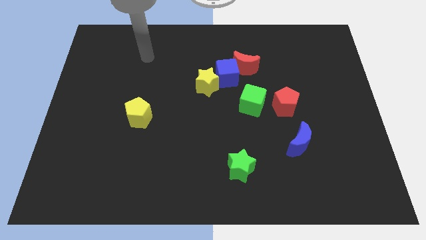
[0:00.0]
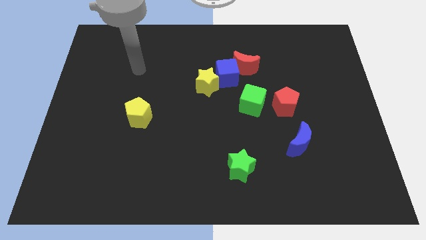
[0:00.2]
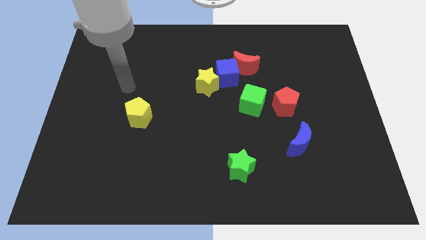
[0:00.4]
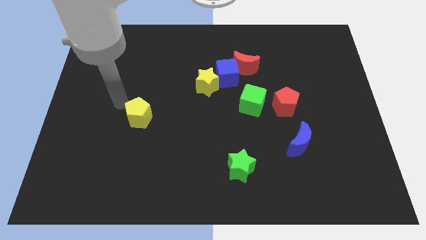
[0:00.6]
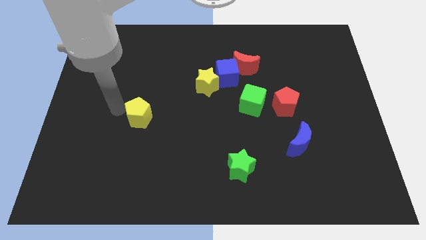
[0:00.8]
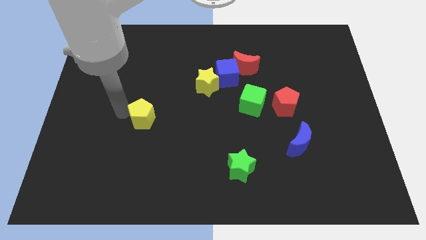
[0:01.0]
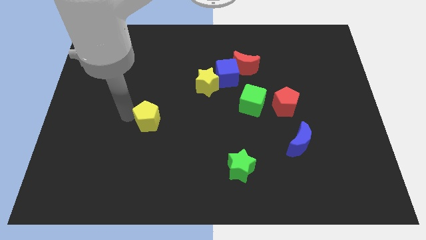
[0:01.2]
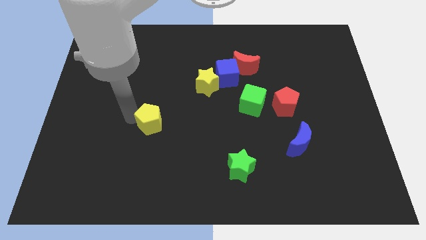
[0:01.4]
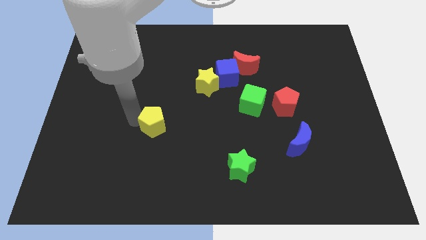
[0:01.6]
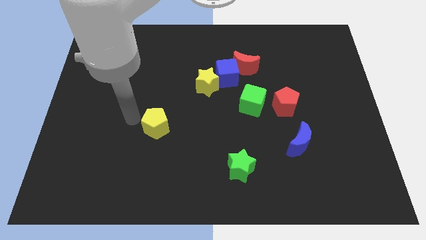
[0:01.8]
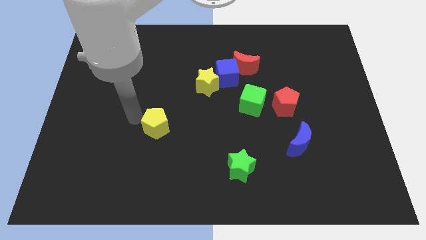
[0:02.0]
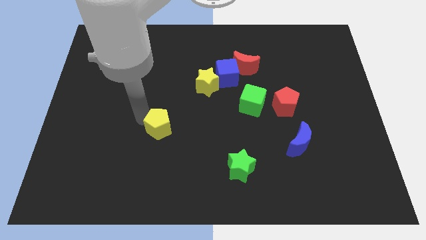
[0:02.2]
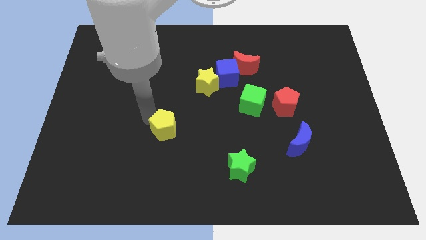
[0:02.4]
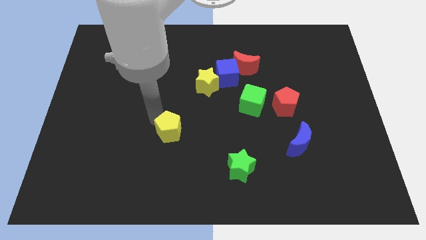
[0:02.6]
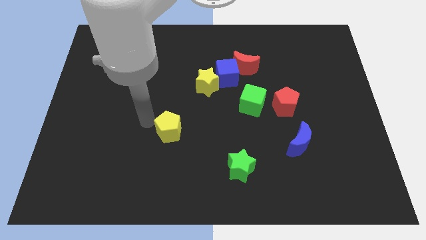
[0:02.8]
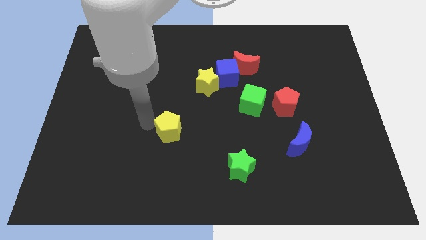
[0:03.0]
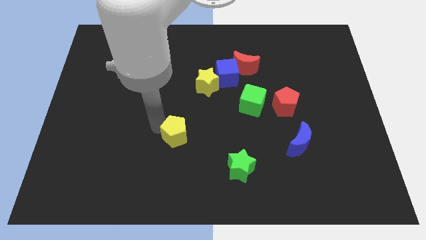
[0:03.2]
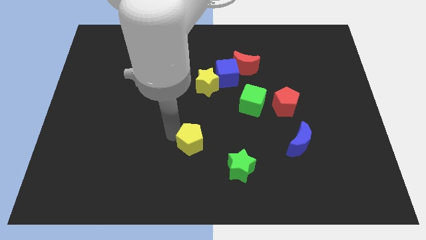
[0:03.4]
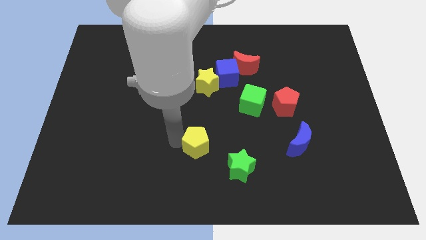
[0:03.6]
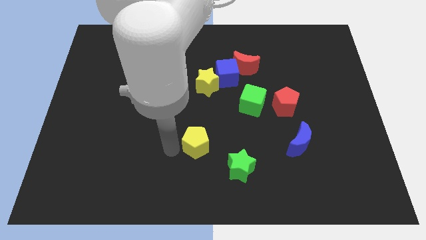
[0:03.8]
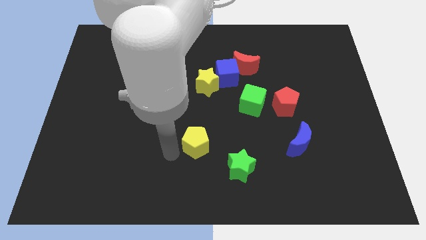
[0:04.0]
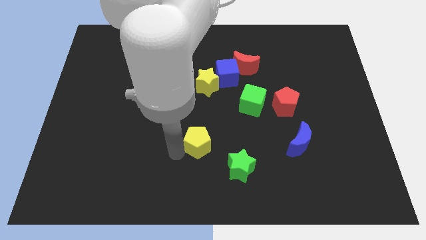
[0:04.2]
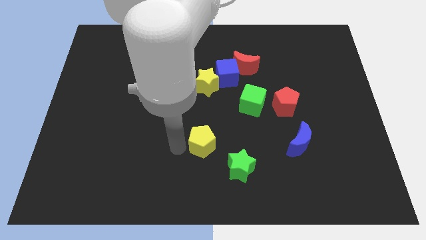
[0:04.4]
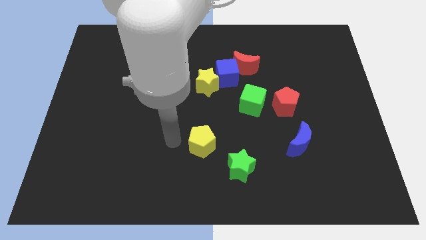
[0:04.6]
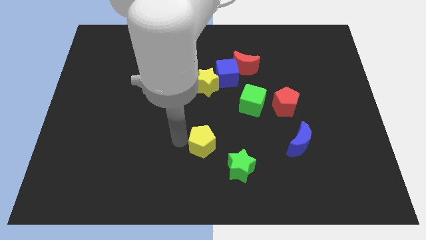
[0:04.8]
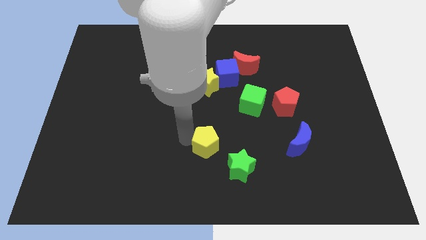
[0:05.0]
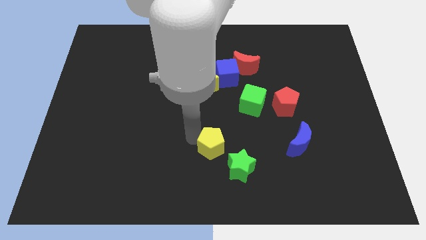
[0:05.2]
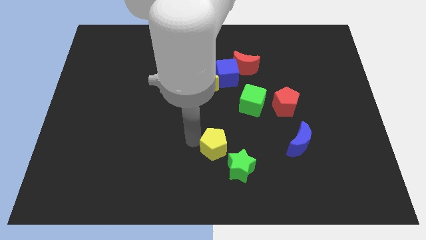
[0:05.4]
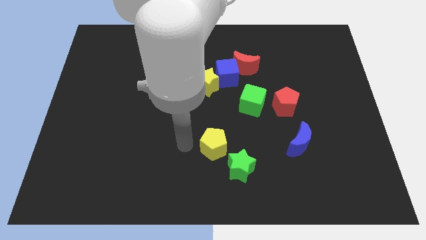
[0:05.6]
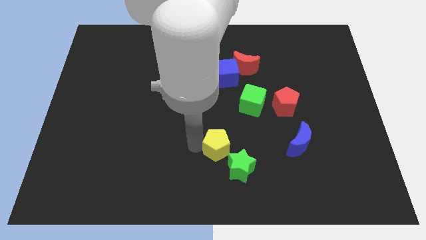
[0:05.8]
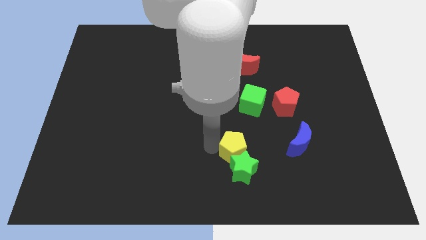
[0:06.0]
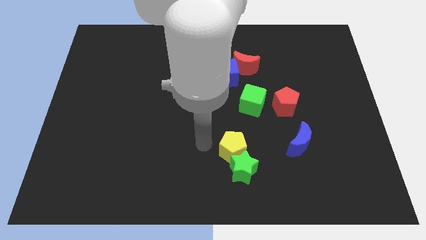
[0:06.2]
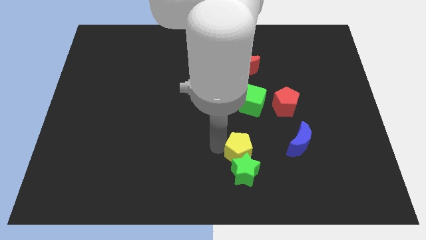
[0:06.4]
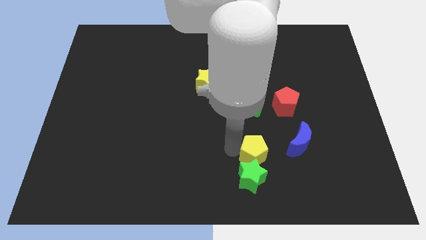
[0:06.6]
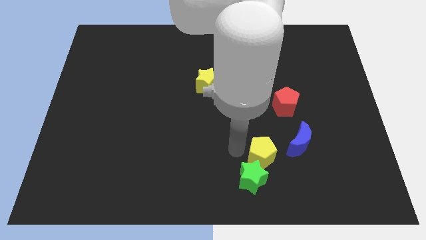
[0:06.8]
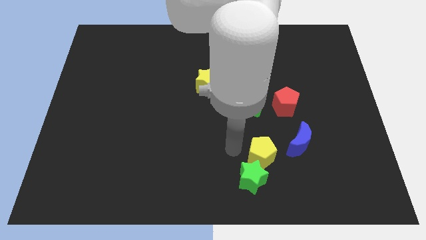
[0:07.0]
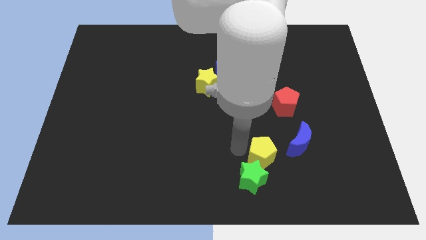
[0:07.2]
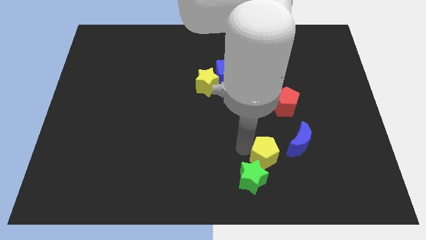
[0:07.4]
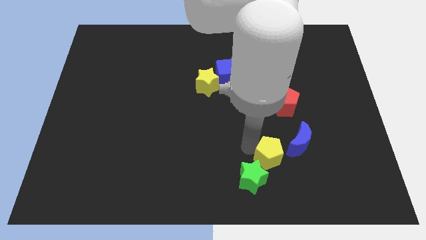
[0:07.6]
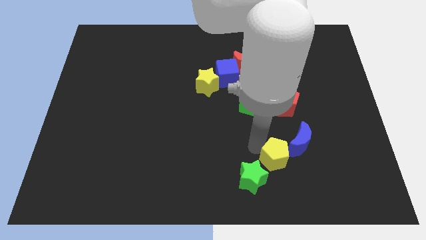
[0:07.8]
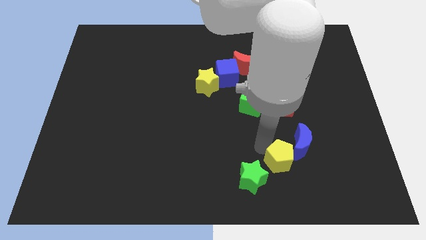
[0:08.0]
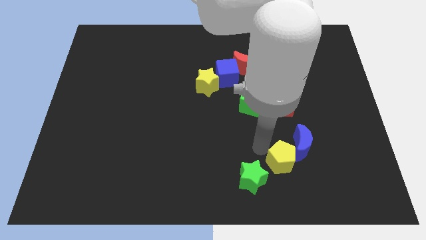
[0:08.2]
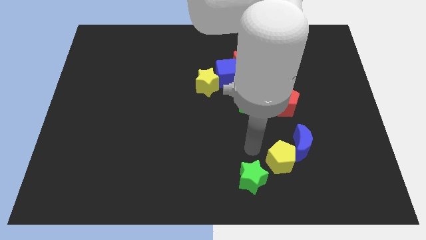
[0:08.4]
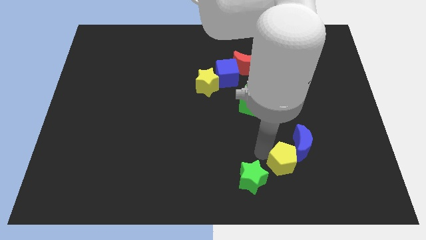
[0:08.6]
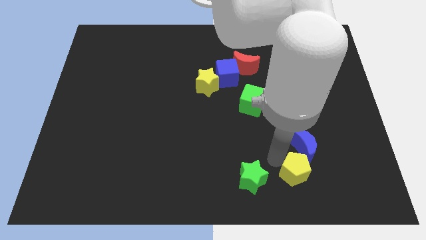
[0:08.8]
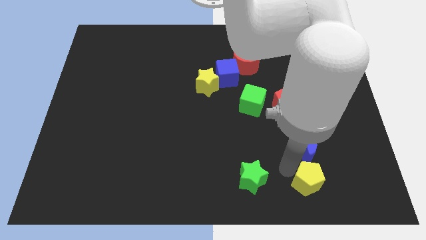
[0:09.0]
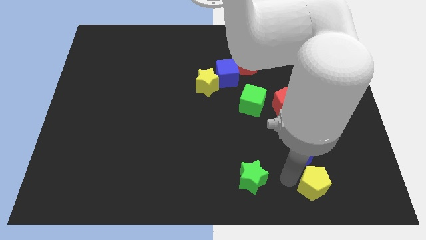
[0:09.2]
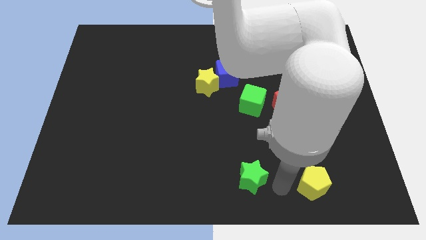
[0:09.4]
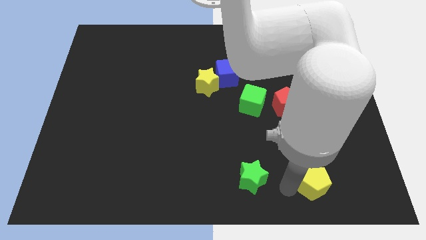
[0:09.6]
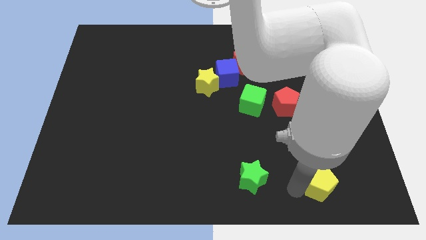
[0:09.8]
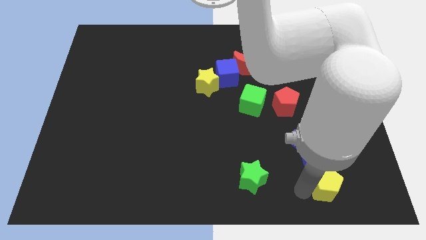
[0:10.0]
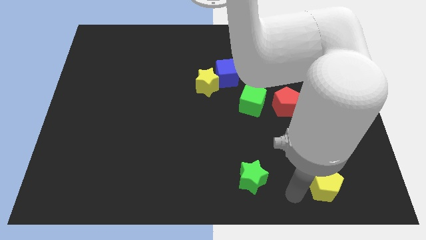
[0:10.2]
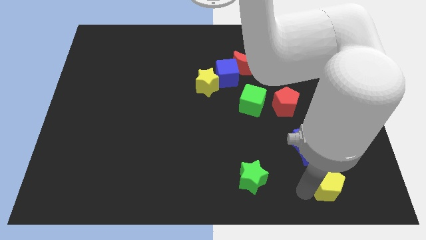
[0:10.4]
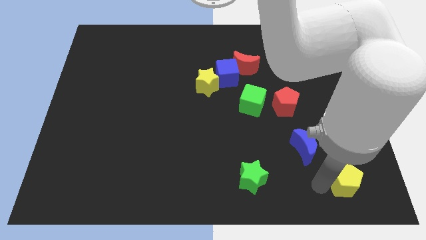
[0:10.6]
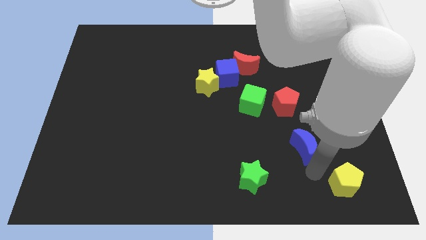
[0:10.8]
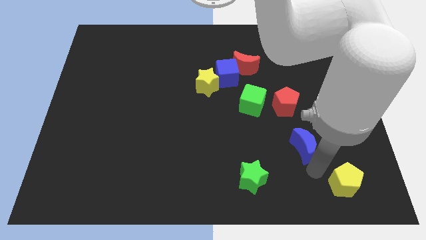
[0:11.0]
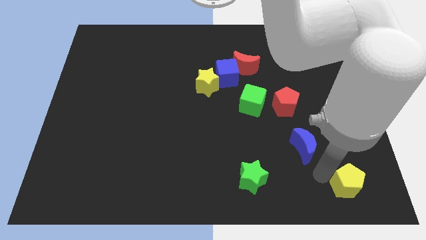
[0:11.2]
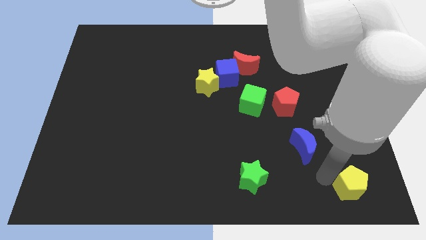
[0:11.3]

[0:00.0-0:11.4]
slide the yellow pentagon to the bottom right of the board
